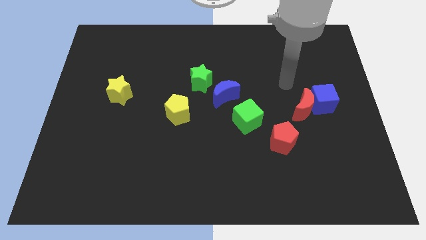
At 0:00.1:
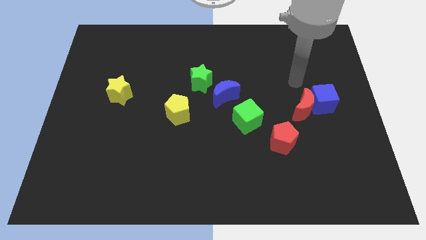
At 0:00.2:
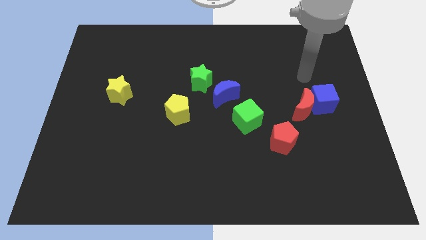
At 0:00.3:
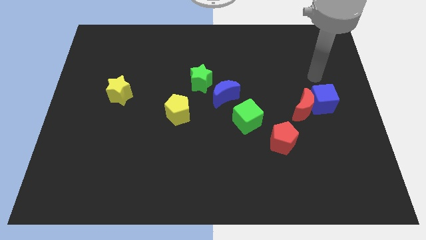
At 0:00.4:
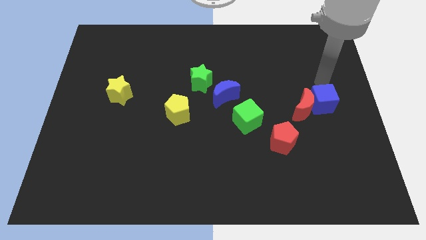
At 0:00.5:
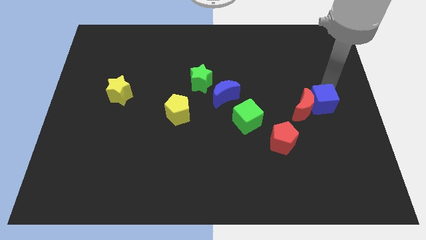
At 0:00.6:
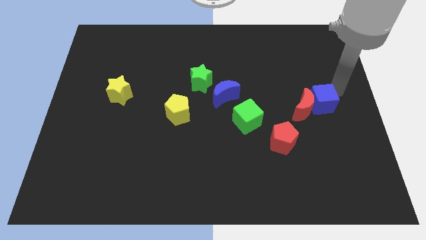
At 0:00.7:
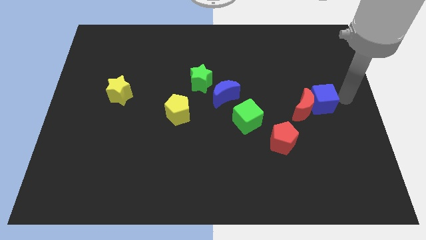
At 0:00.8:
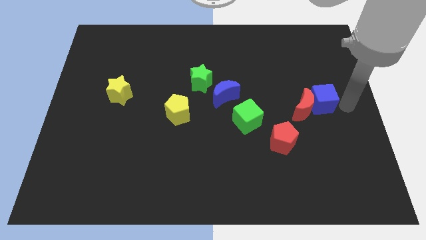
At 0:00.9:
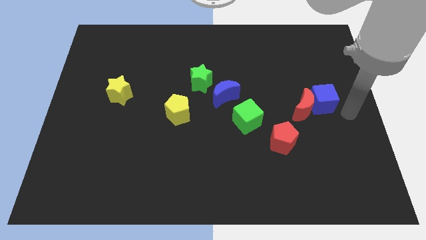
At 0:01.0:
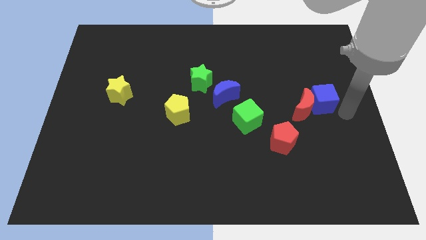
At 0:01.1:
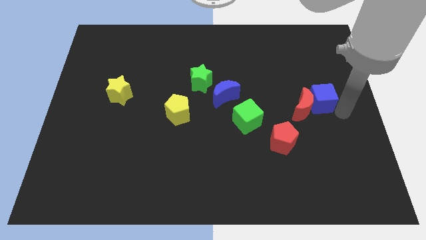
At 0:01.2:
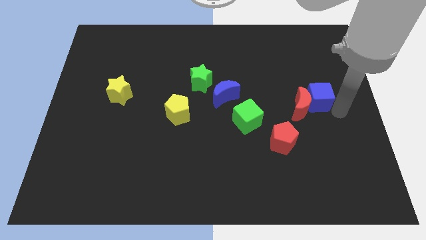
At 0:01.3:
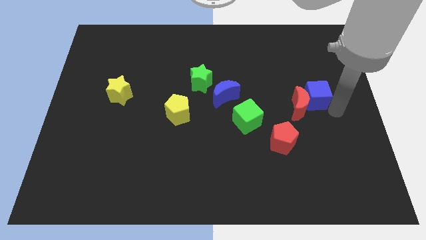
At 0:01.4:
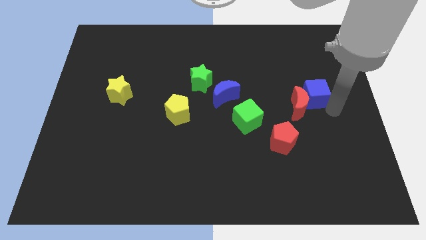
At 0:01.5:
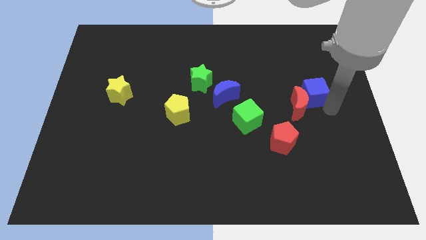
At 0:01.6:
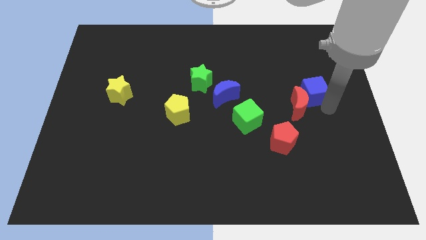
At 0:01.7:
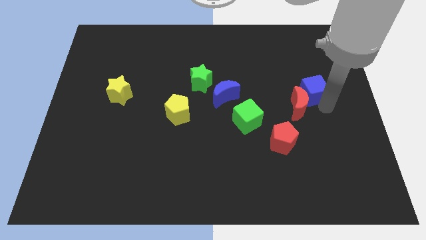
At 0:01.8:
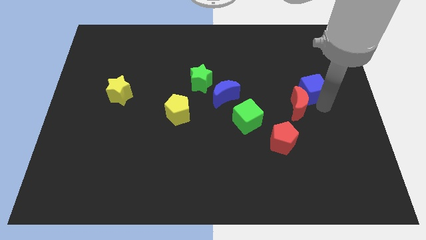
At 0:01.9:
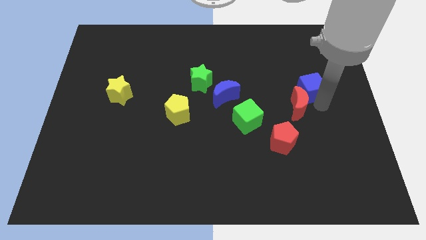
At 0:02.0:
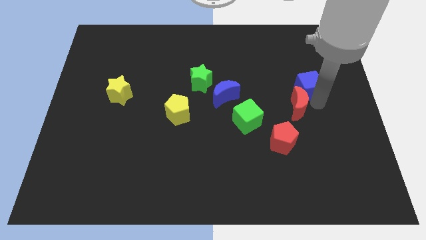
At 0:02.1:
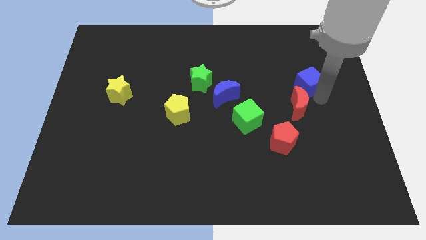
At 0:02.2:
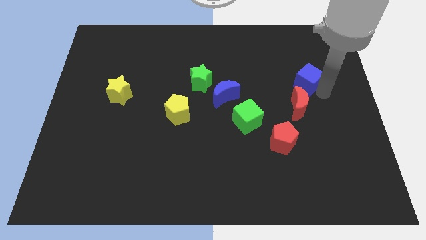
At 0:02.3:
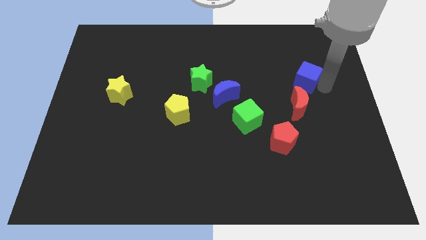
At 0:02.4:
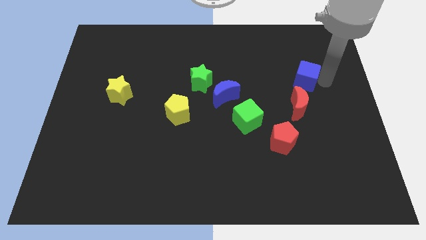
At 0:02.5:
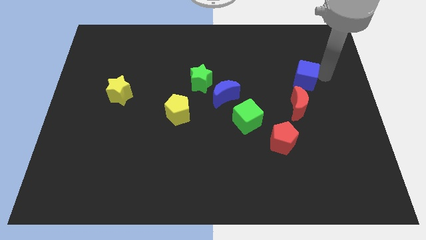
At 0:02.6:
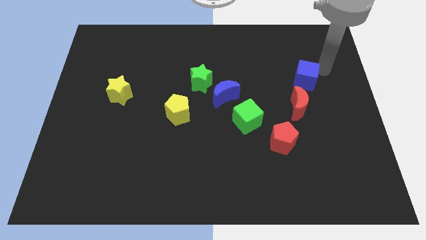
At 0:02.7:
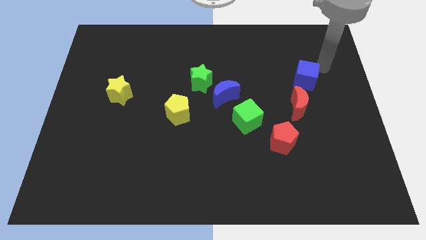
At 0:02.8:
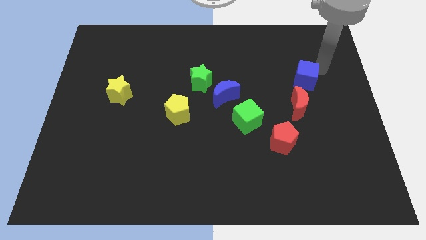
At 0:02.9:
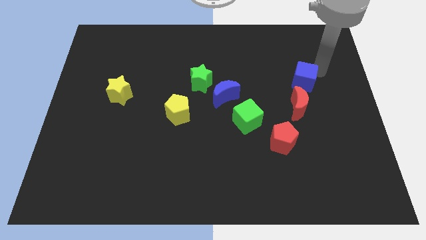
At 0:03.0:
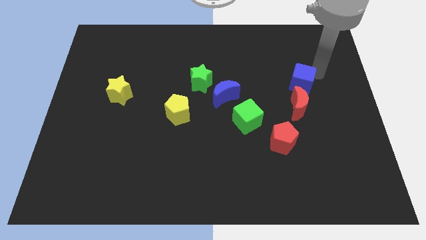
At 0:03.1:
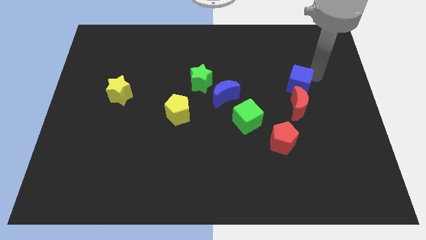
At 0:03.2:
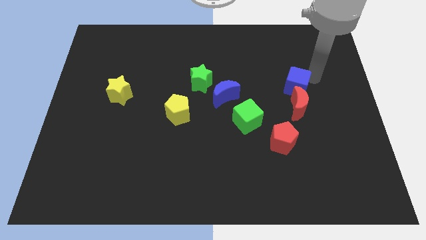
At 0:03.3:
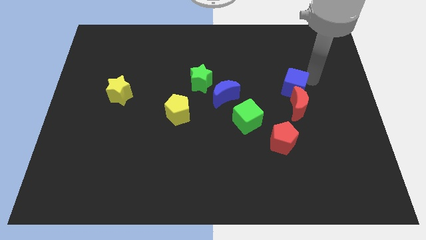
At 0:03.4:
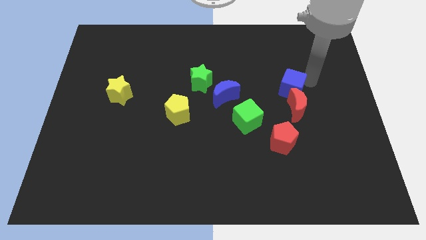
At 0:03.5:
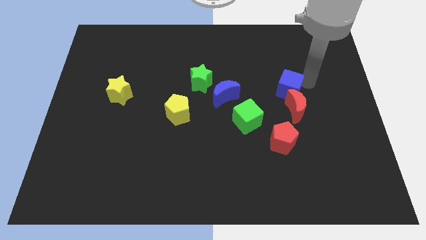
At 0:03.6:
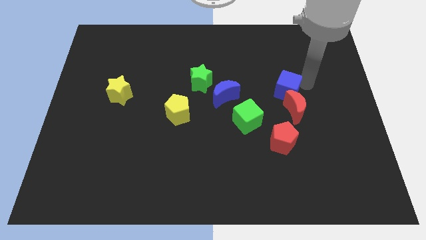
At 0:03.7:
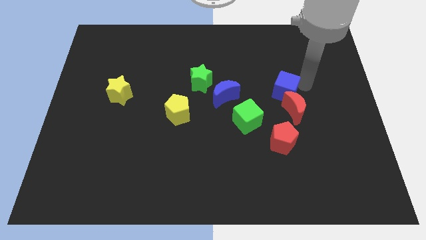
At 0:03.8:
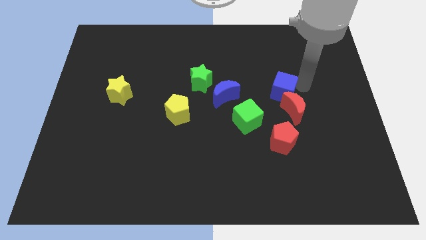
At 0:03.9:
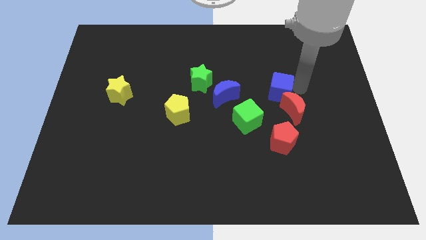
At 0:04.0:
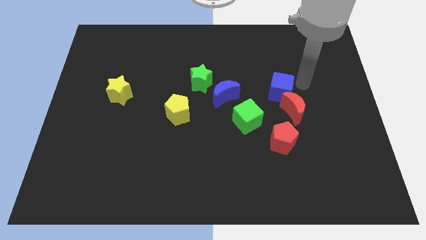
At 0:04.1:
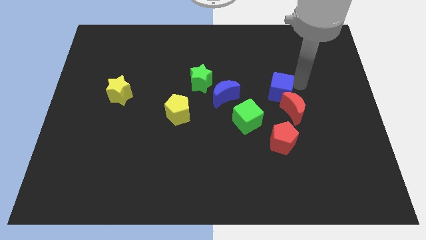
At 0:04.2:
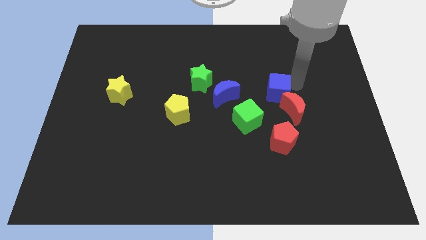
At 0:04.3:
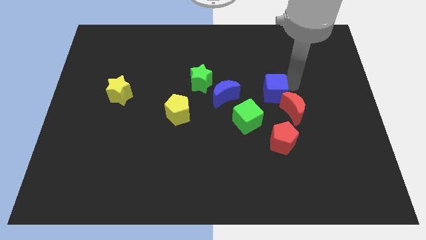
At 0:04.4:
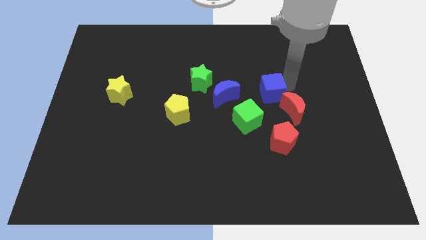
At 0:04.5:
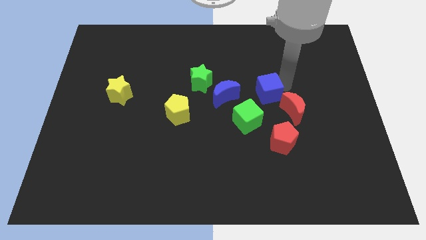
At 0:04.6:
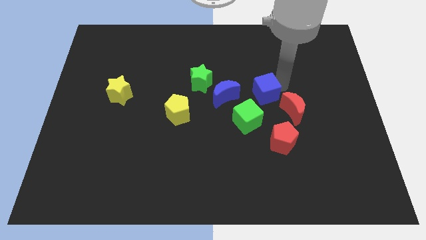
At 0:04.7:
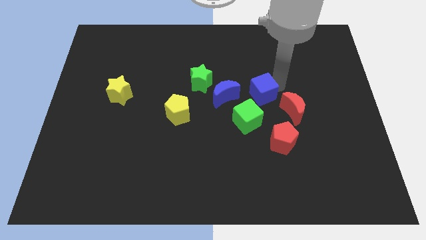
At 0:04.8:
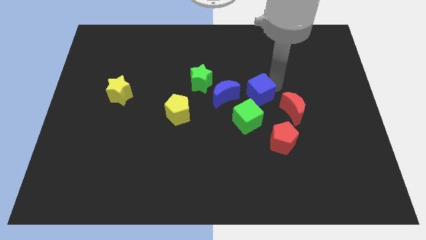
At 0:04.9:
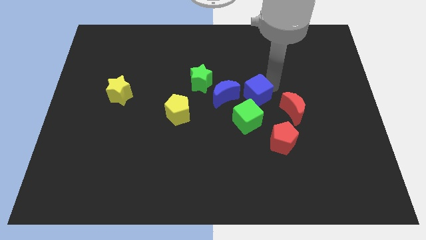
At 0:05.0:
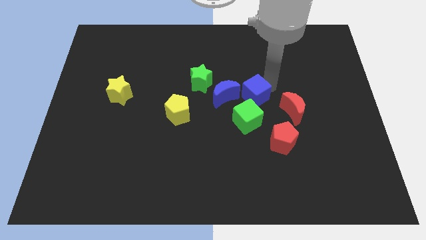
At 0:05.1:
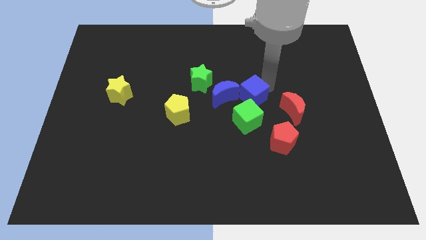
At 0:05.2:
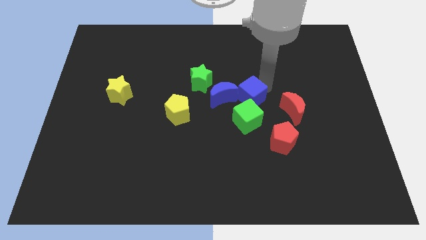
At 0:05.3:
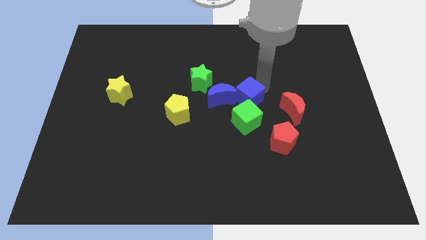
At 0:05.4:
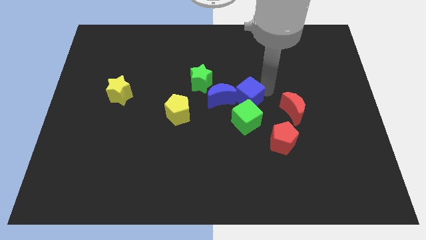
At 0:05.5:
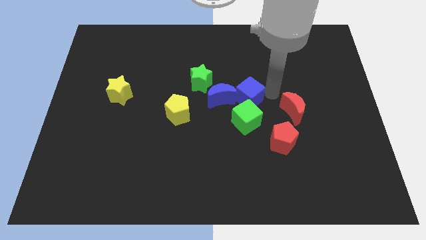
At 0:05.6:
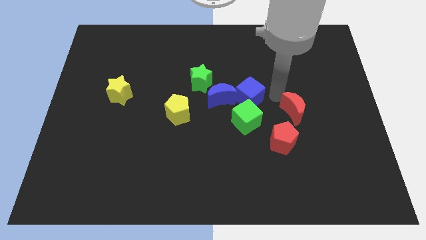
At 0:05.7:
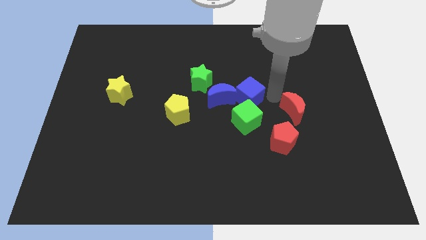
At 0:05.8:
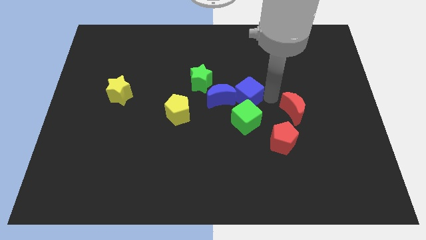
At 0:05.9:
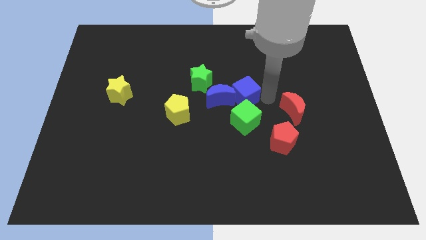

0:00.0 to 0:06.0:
put the blue cube to the bottom right of the green star

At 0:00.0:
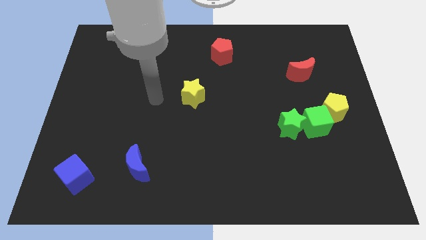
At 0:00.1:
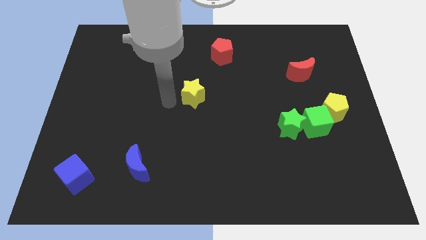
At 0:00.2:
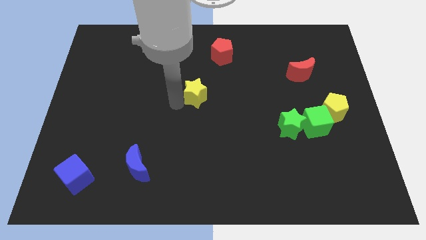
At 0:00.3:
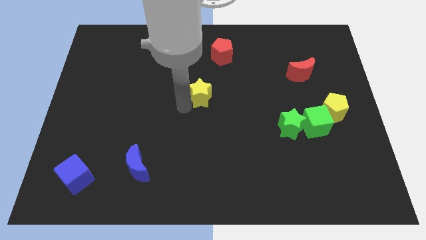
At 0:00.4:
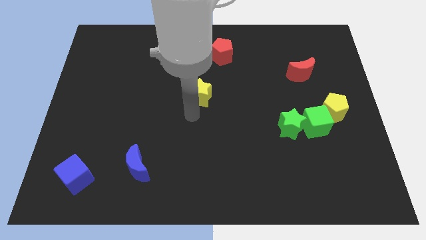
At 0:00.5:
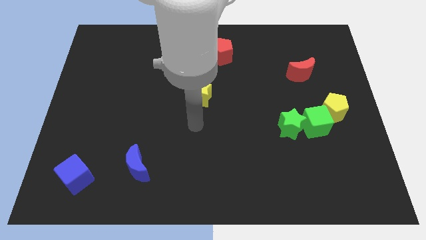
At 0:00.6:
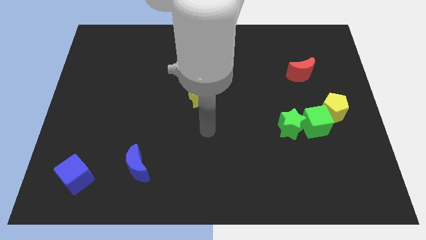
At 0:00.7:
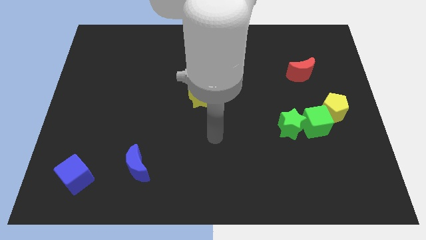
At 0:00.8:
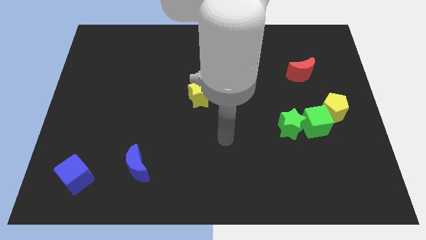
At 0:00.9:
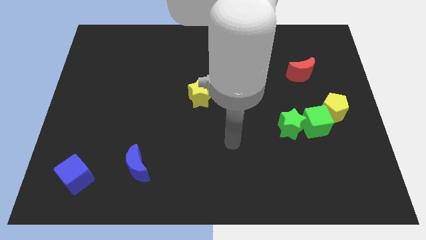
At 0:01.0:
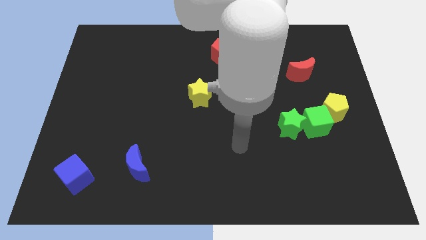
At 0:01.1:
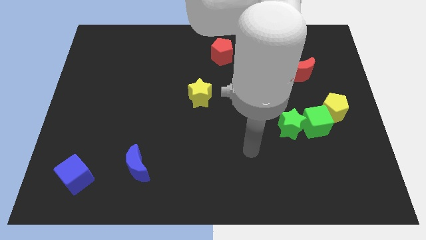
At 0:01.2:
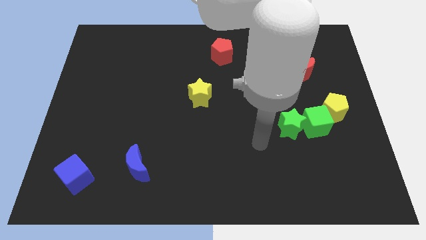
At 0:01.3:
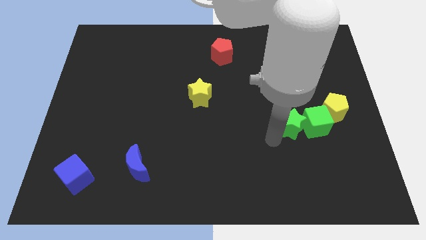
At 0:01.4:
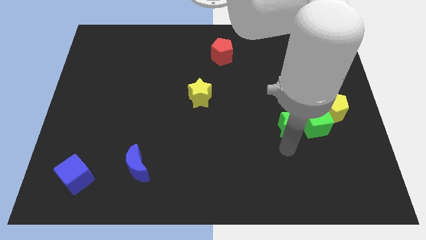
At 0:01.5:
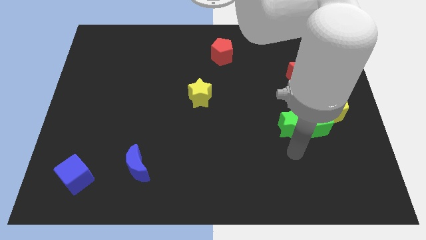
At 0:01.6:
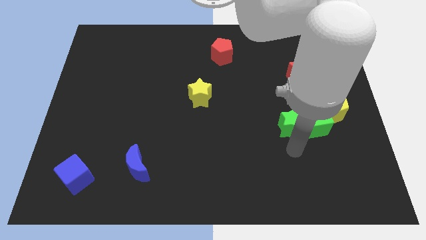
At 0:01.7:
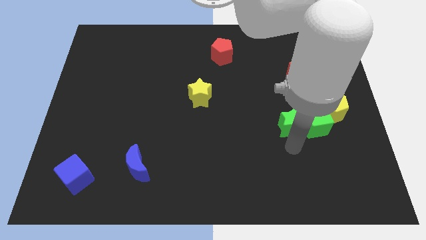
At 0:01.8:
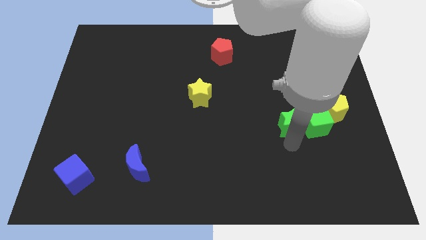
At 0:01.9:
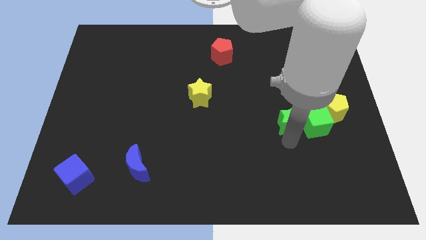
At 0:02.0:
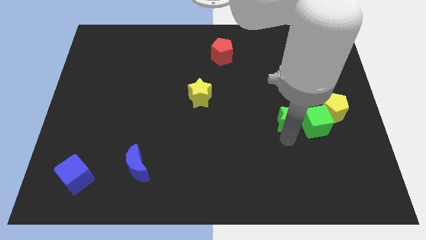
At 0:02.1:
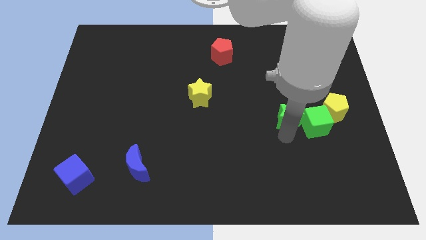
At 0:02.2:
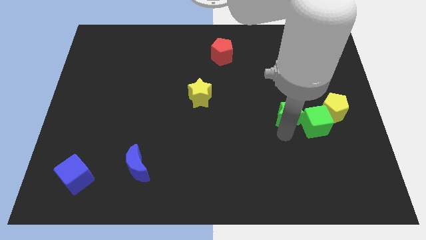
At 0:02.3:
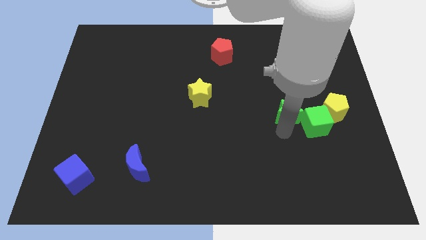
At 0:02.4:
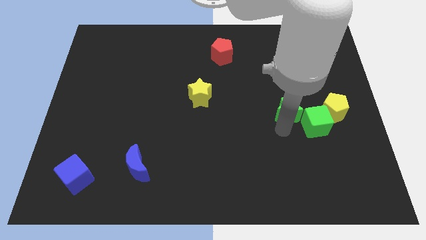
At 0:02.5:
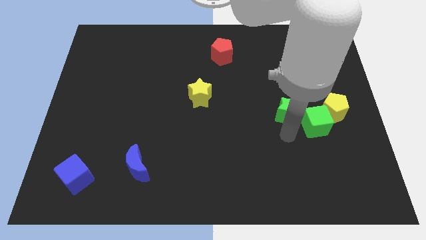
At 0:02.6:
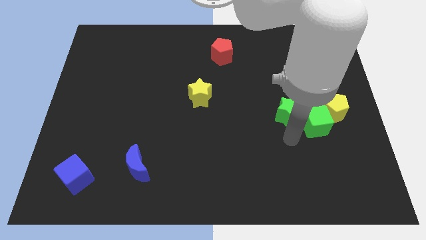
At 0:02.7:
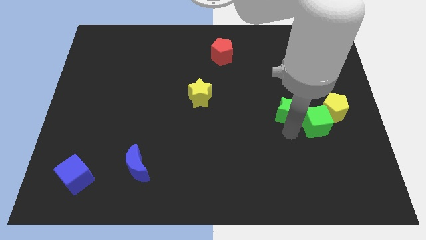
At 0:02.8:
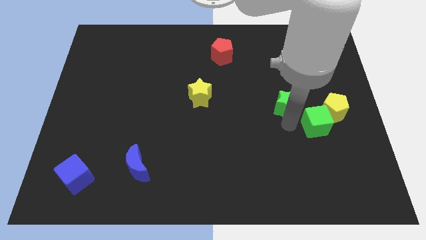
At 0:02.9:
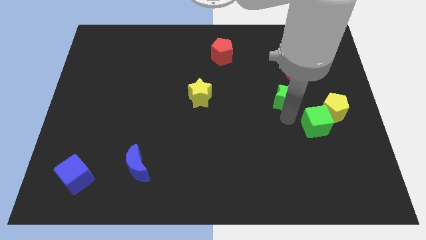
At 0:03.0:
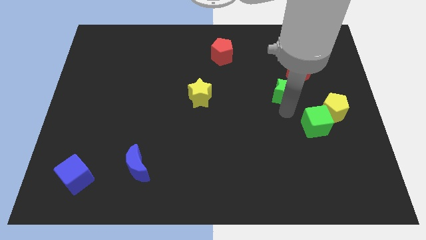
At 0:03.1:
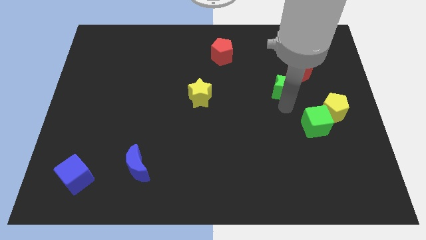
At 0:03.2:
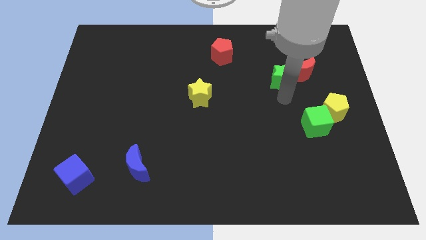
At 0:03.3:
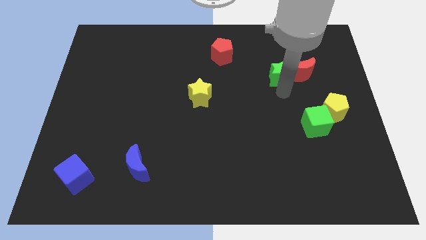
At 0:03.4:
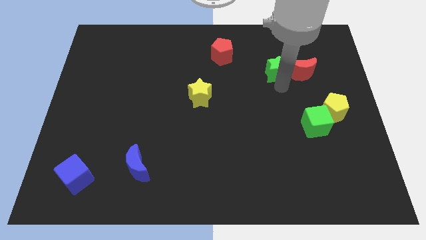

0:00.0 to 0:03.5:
move the green star to the top left of the red moon
